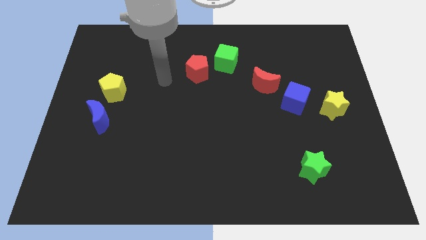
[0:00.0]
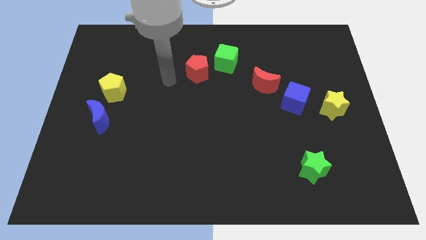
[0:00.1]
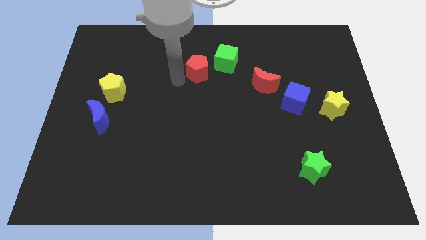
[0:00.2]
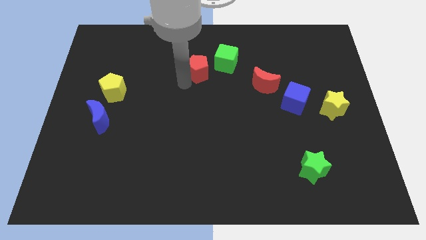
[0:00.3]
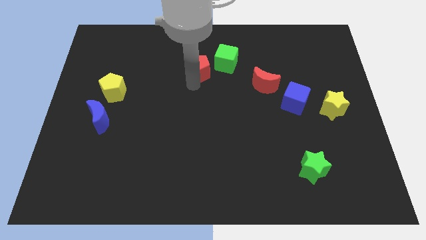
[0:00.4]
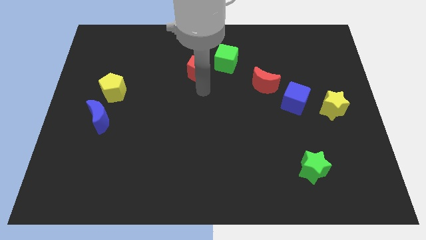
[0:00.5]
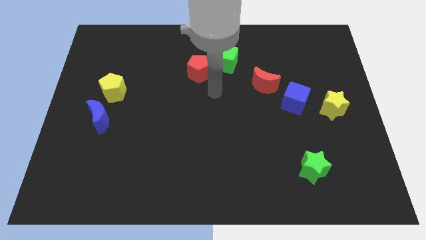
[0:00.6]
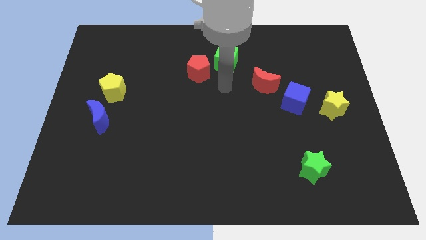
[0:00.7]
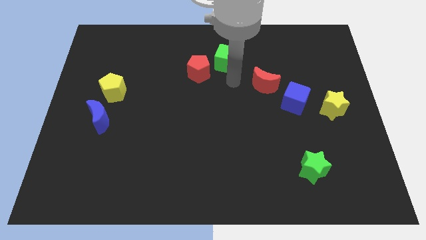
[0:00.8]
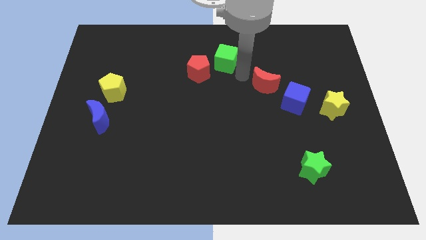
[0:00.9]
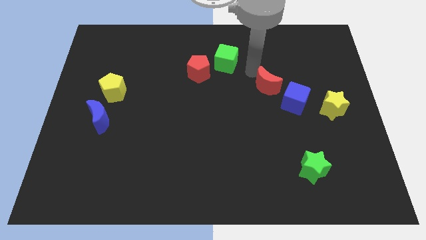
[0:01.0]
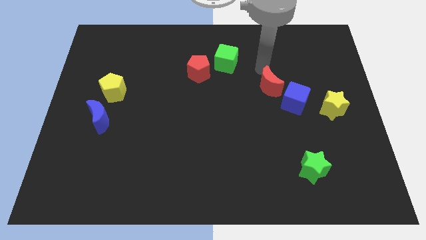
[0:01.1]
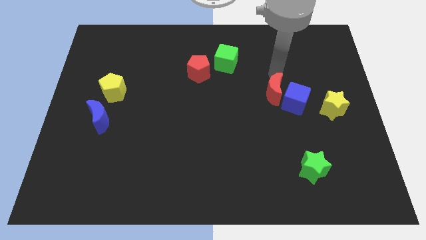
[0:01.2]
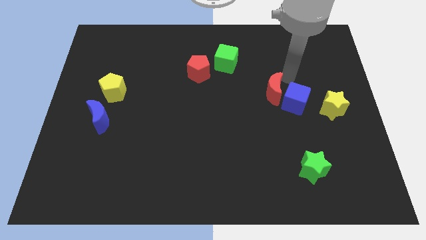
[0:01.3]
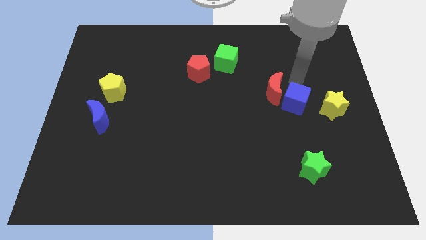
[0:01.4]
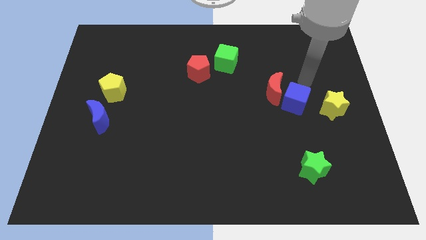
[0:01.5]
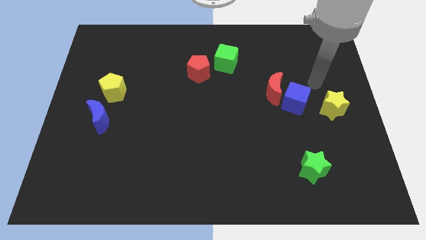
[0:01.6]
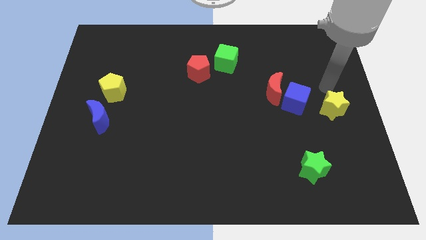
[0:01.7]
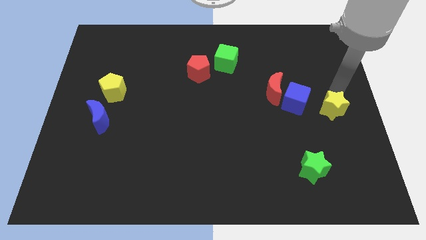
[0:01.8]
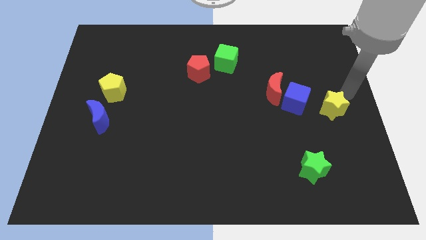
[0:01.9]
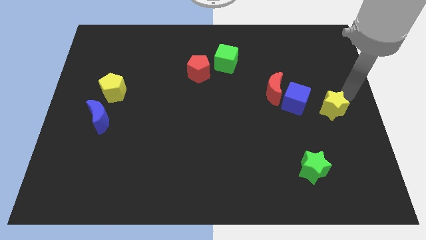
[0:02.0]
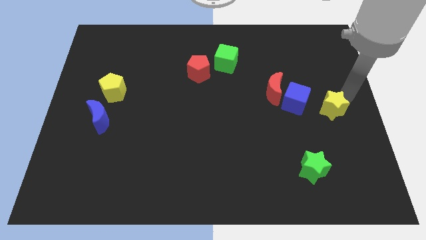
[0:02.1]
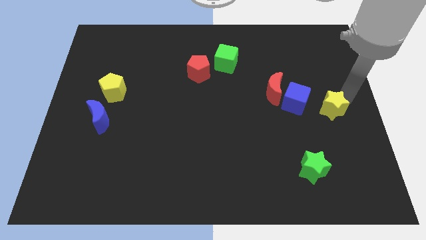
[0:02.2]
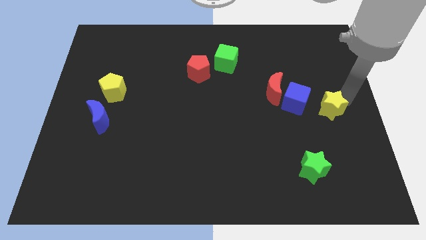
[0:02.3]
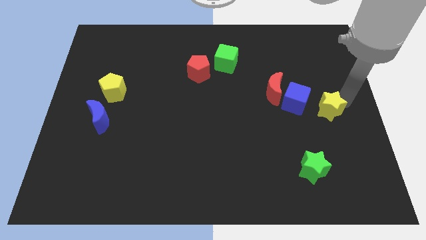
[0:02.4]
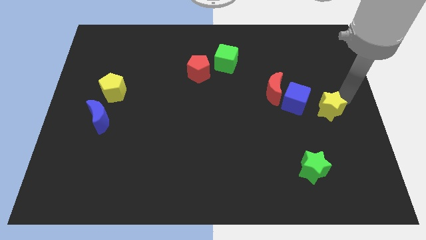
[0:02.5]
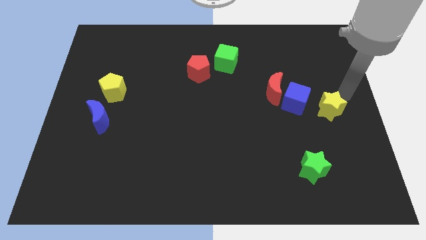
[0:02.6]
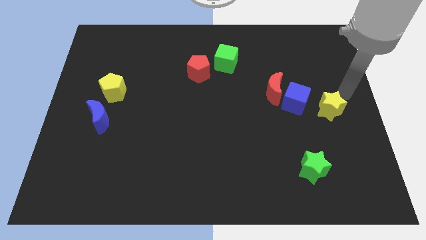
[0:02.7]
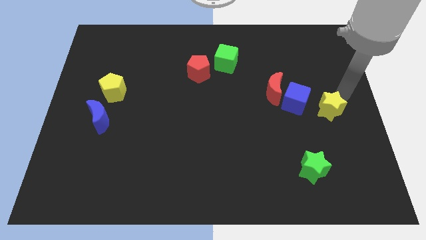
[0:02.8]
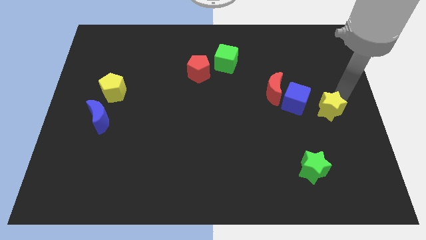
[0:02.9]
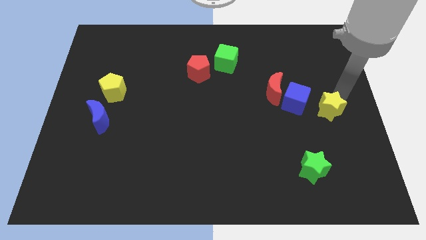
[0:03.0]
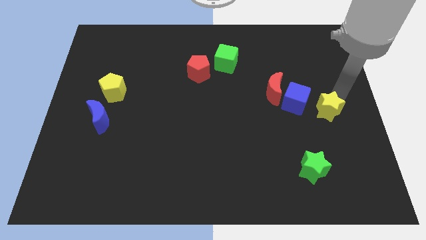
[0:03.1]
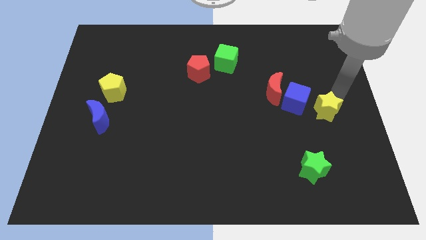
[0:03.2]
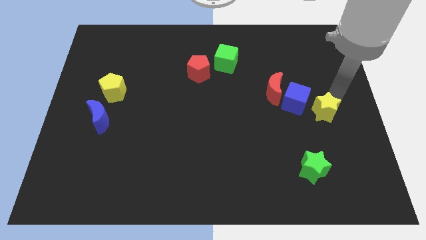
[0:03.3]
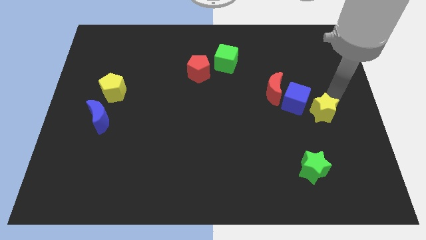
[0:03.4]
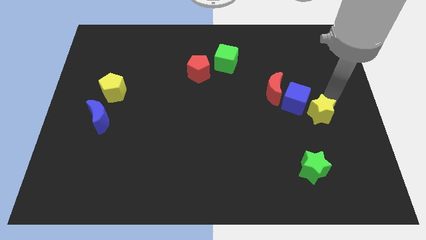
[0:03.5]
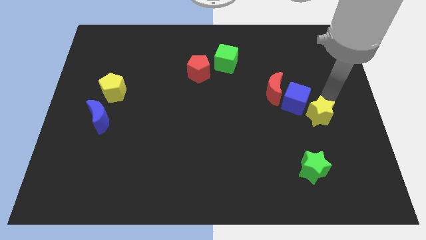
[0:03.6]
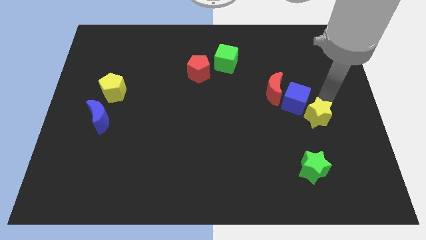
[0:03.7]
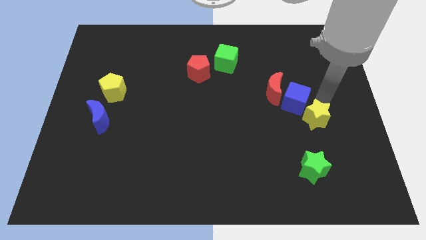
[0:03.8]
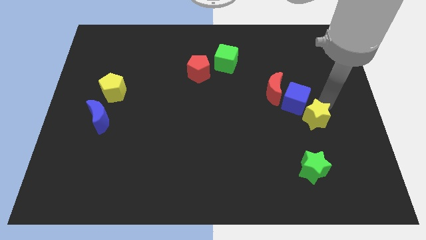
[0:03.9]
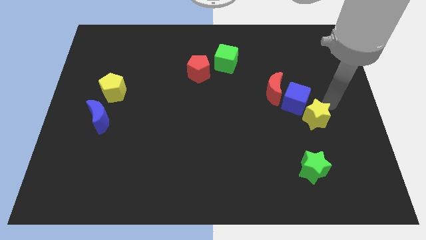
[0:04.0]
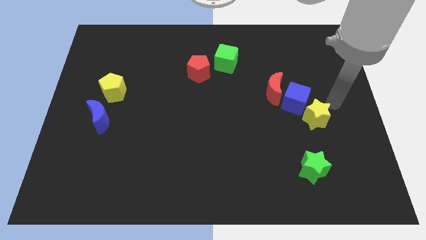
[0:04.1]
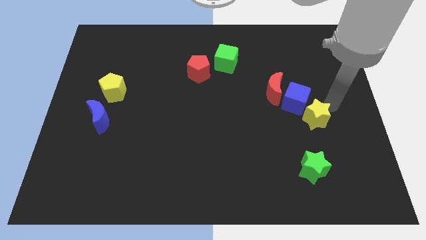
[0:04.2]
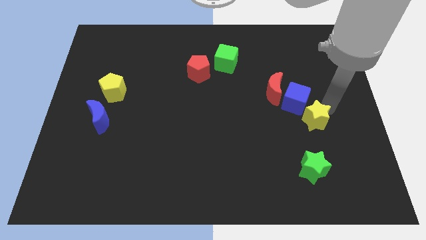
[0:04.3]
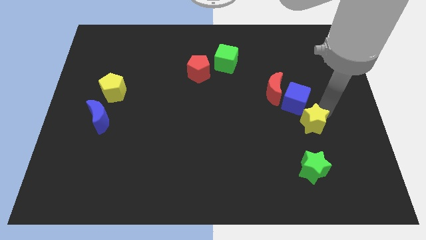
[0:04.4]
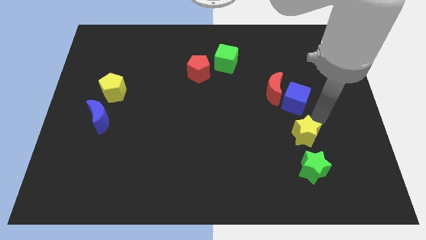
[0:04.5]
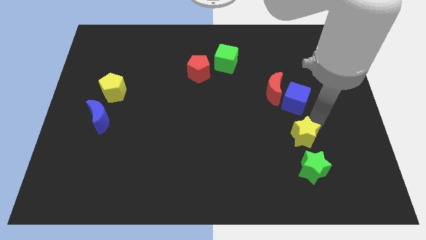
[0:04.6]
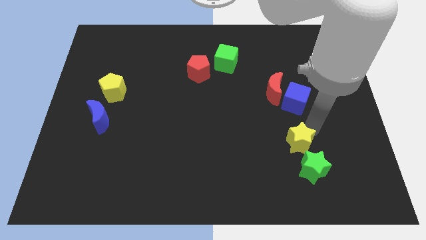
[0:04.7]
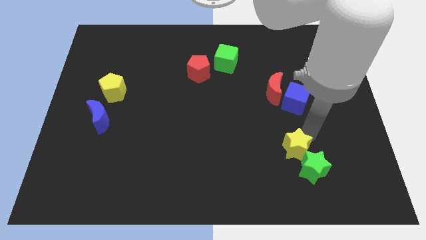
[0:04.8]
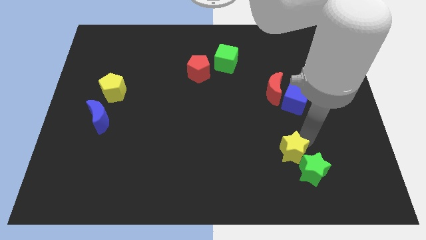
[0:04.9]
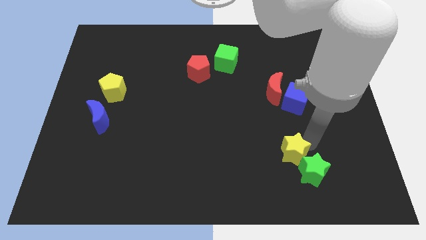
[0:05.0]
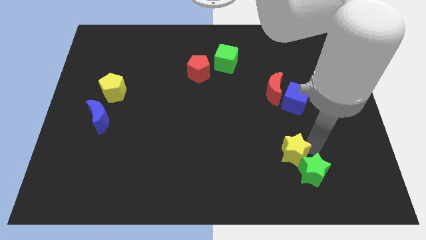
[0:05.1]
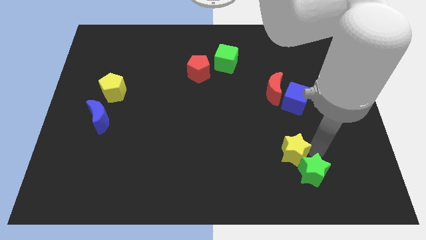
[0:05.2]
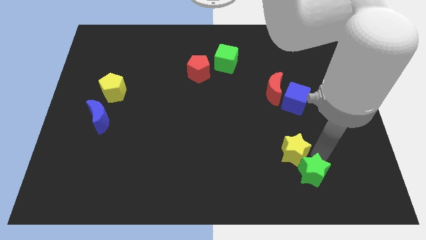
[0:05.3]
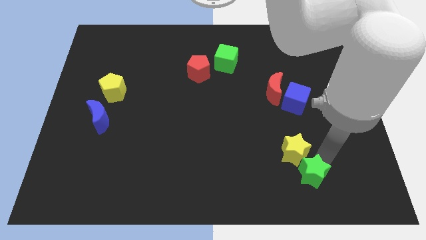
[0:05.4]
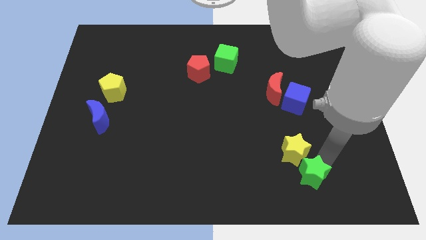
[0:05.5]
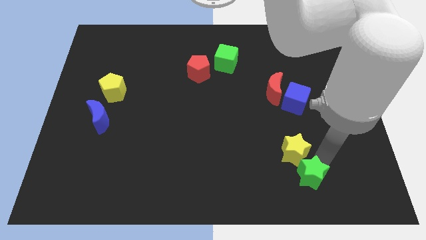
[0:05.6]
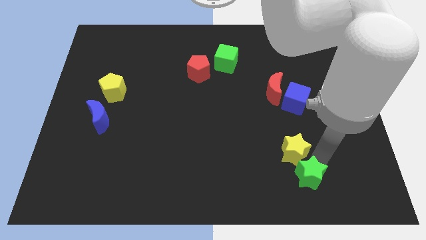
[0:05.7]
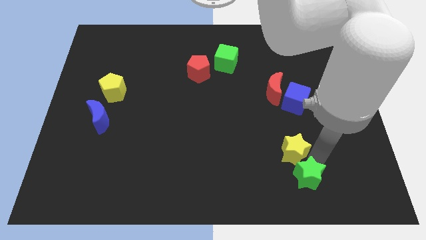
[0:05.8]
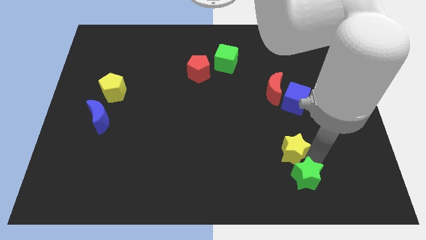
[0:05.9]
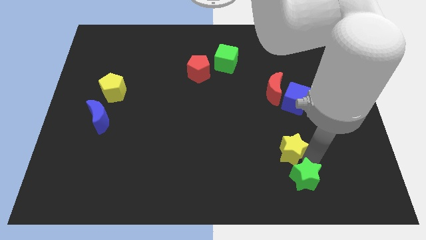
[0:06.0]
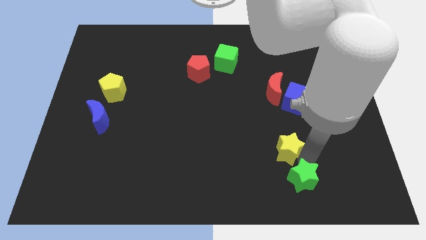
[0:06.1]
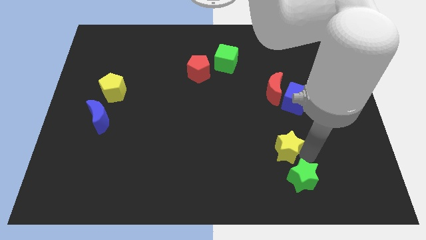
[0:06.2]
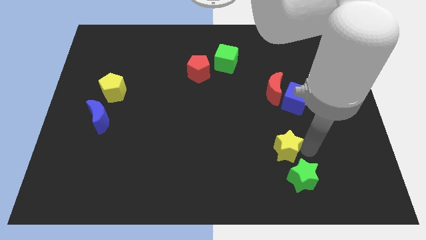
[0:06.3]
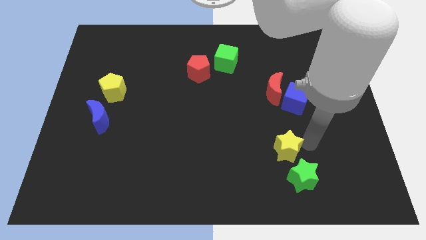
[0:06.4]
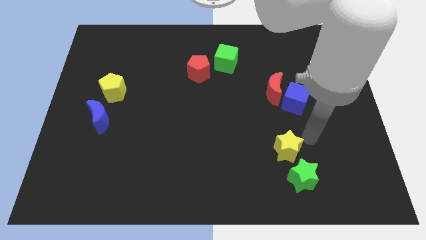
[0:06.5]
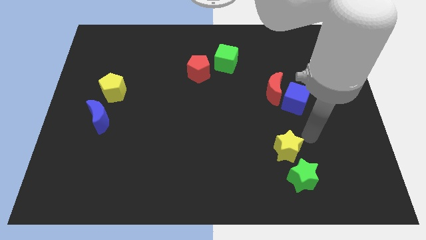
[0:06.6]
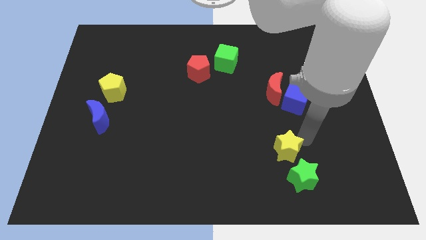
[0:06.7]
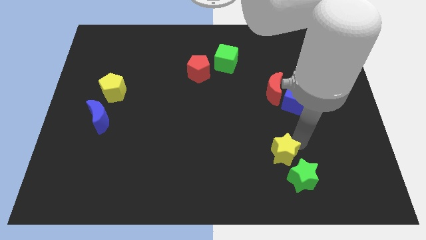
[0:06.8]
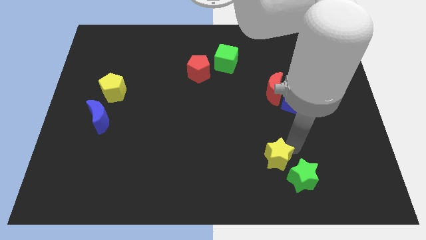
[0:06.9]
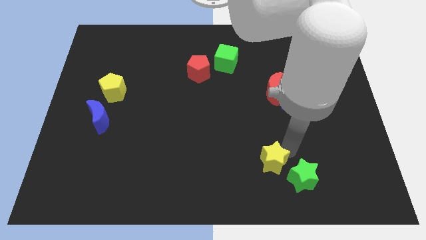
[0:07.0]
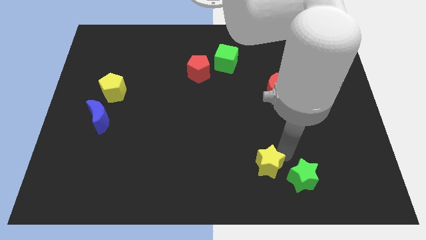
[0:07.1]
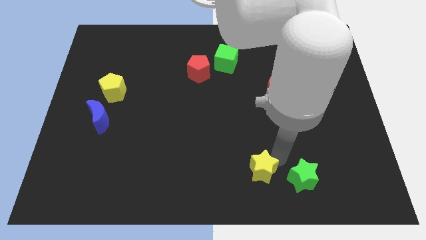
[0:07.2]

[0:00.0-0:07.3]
push the yellow star to the bottom

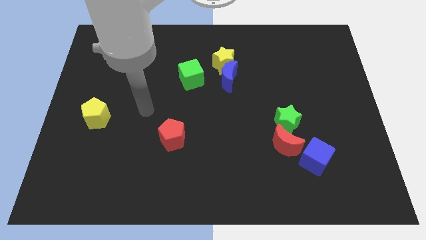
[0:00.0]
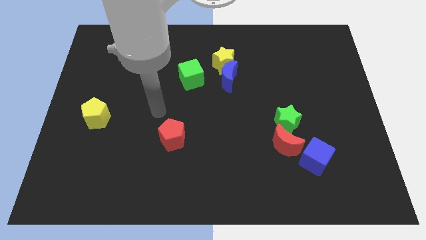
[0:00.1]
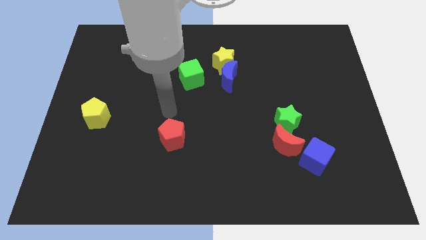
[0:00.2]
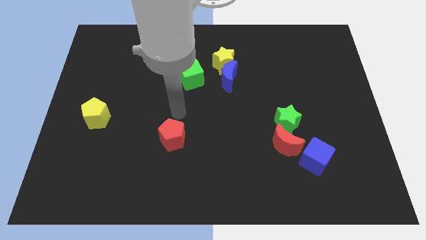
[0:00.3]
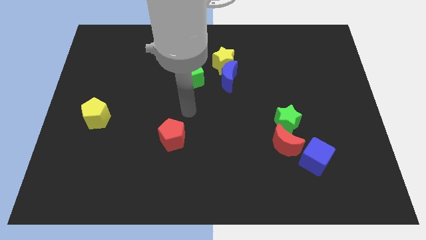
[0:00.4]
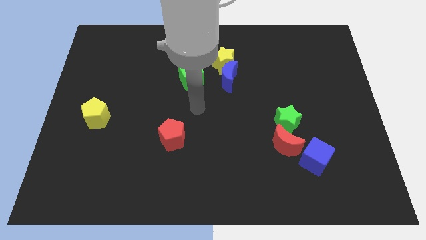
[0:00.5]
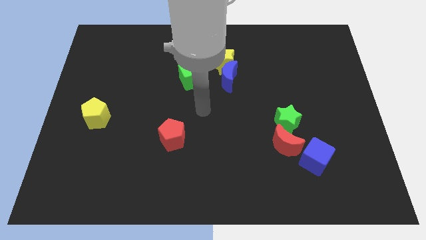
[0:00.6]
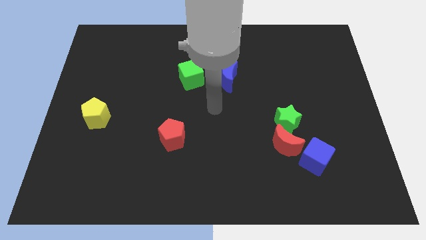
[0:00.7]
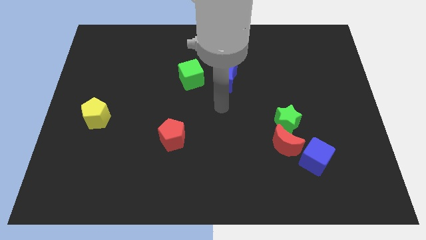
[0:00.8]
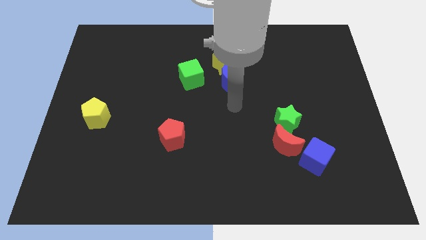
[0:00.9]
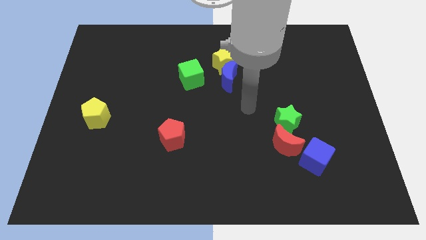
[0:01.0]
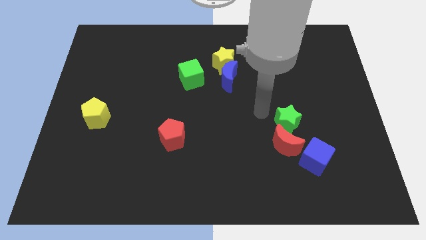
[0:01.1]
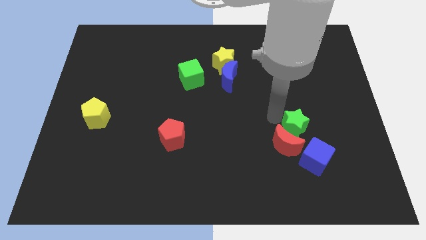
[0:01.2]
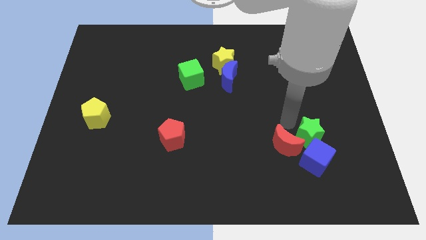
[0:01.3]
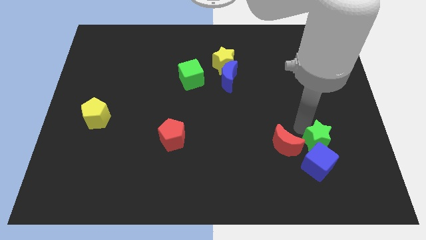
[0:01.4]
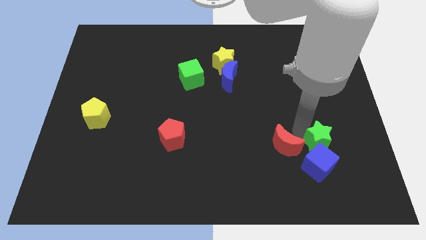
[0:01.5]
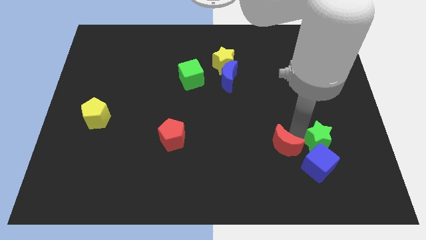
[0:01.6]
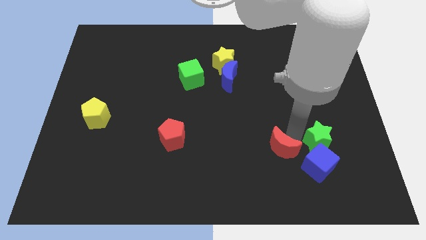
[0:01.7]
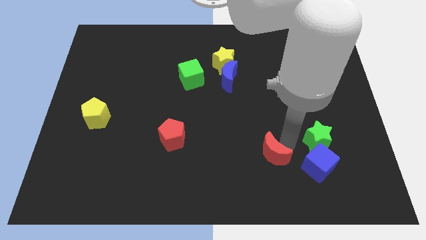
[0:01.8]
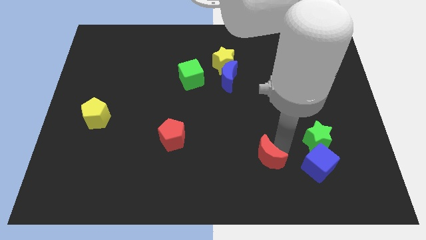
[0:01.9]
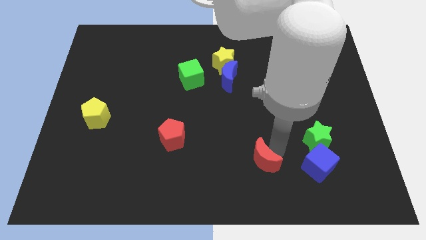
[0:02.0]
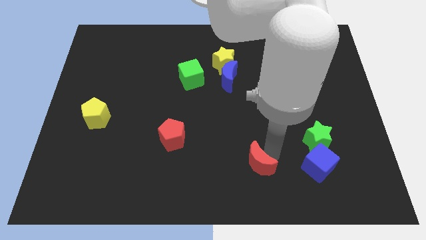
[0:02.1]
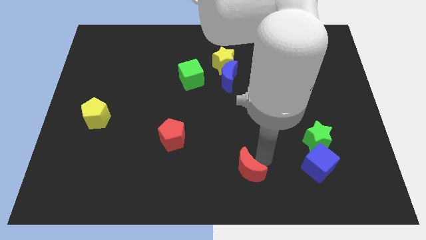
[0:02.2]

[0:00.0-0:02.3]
slide the red moon to the bottom side
